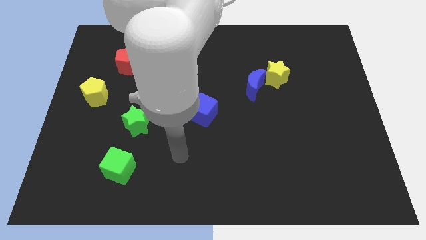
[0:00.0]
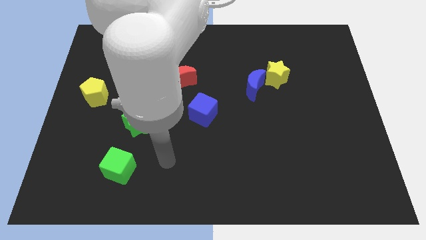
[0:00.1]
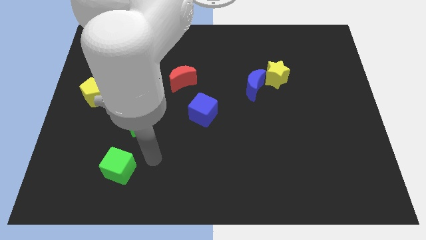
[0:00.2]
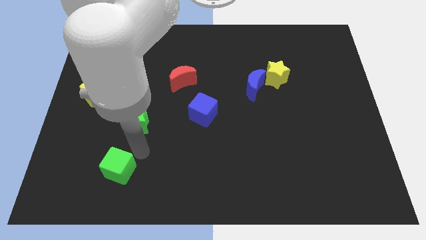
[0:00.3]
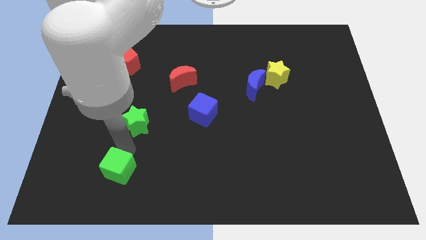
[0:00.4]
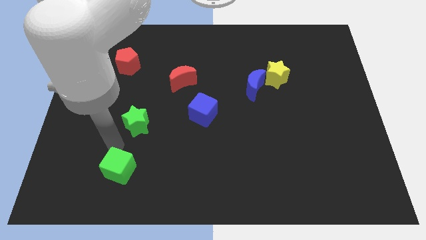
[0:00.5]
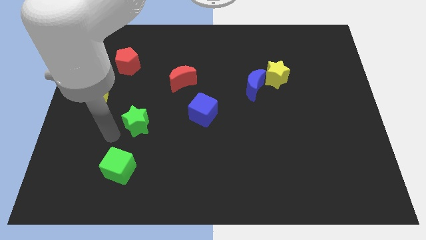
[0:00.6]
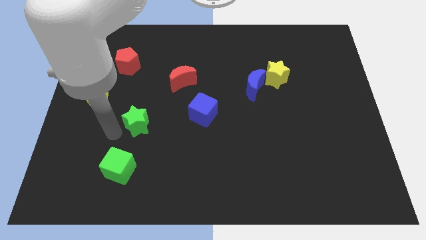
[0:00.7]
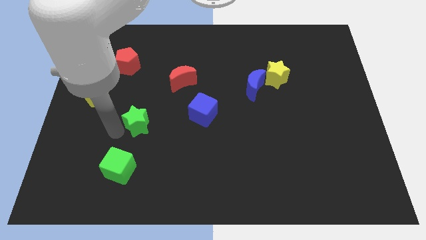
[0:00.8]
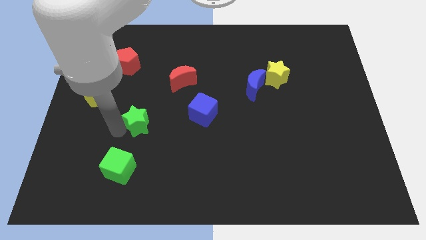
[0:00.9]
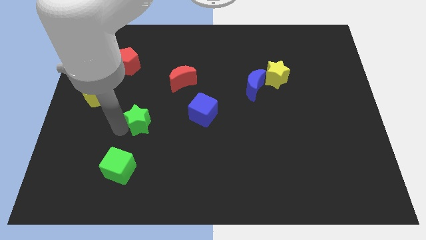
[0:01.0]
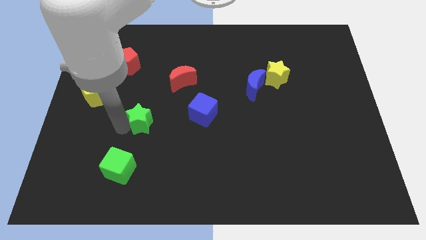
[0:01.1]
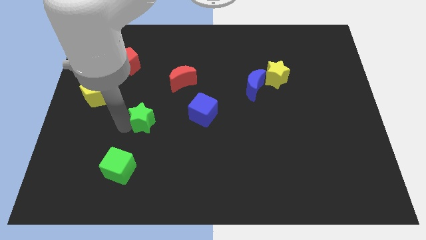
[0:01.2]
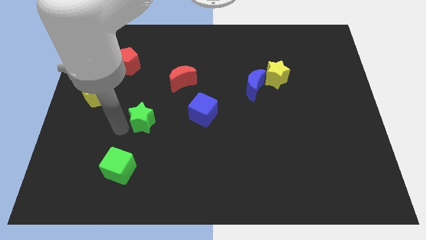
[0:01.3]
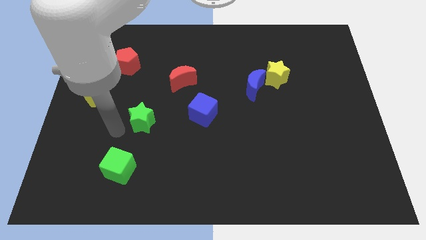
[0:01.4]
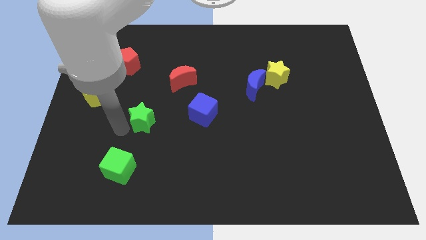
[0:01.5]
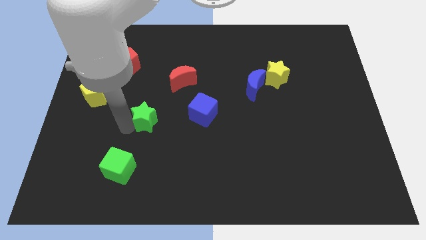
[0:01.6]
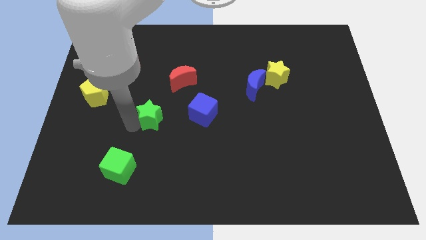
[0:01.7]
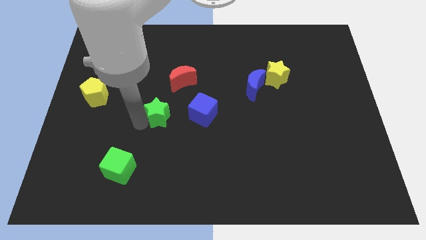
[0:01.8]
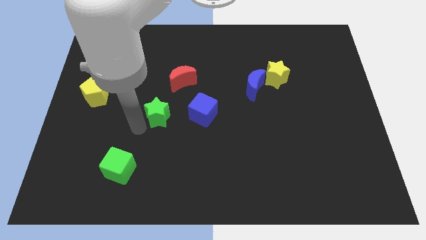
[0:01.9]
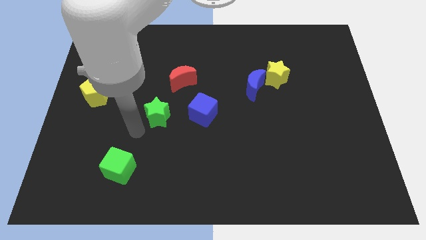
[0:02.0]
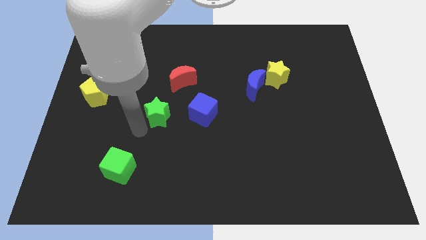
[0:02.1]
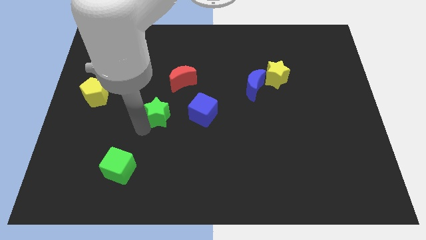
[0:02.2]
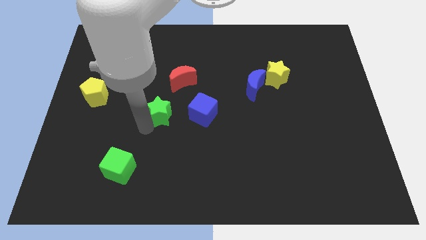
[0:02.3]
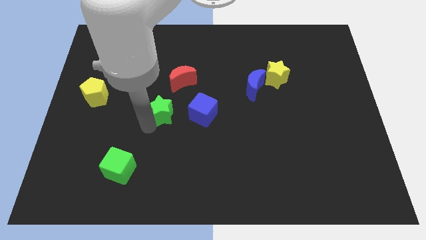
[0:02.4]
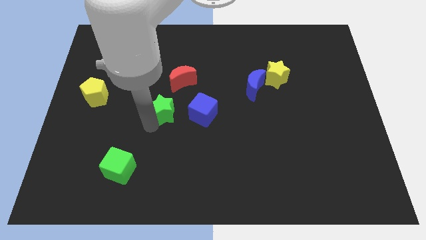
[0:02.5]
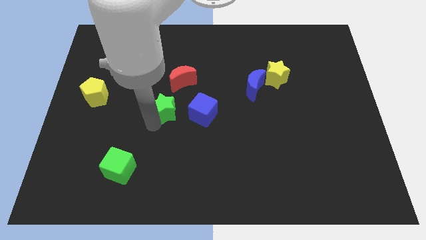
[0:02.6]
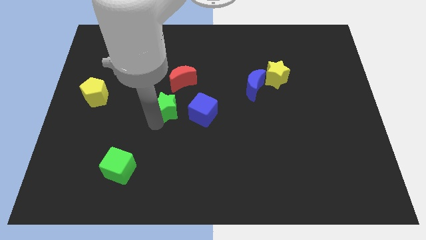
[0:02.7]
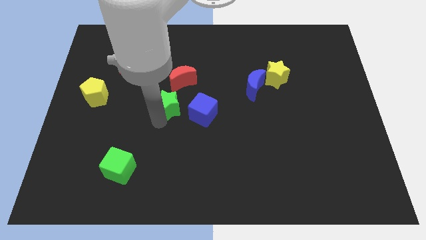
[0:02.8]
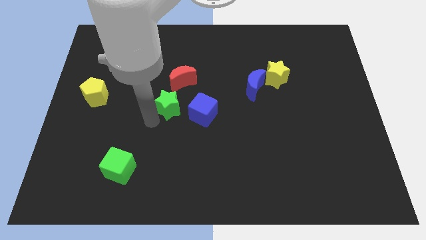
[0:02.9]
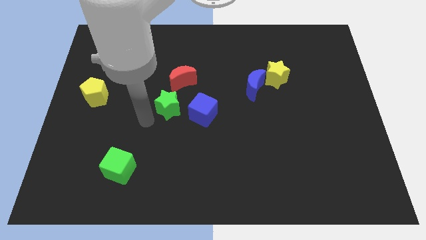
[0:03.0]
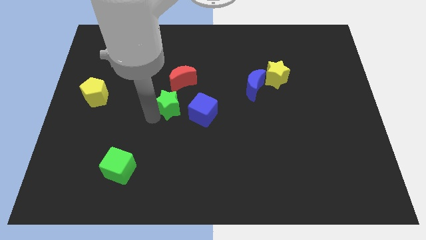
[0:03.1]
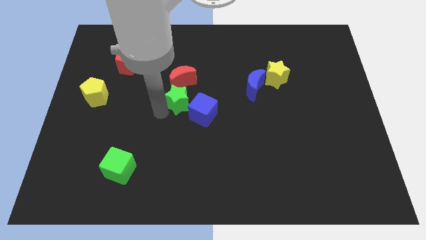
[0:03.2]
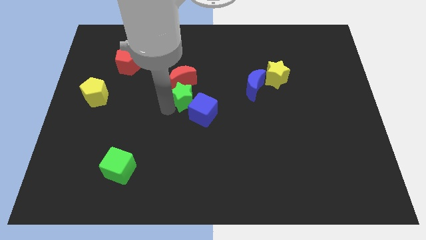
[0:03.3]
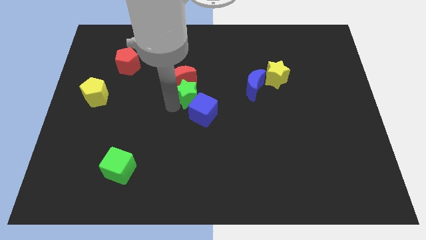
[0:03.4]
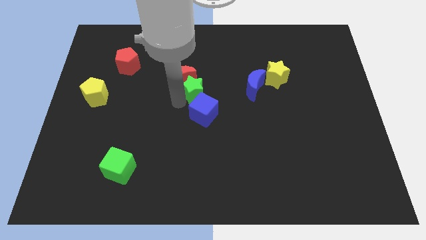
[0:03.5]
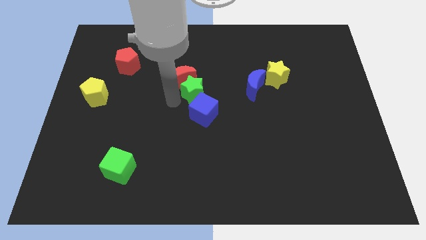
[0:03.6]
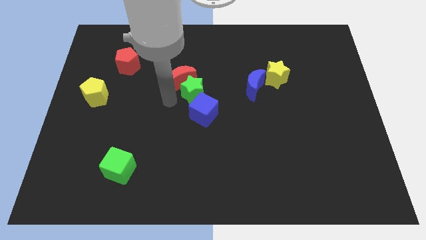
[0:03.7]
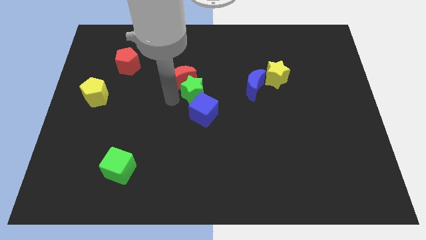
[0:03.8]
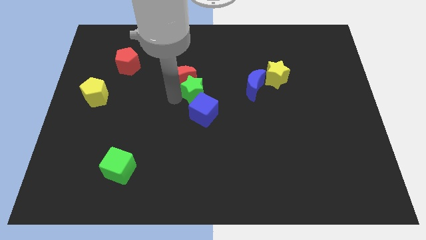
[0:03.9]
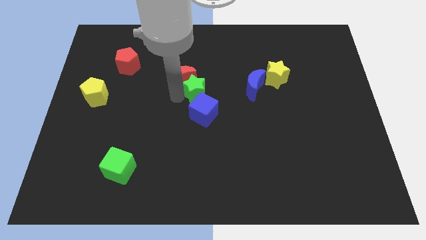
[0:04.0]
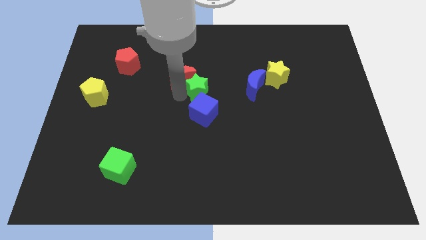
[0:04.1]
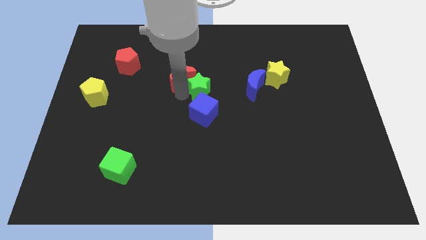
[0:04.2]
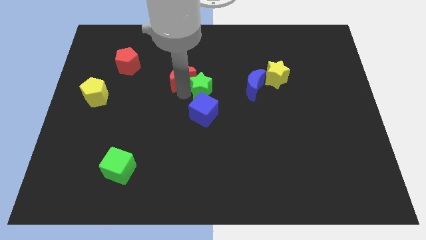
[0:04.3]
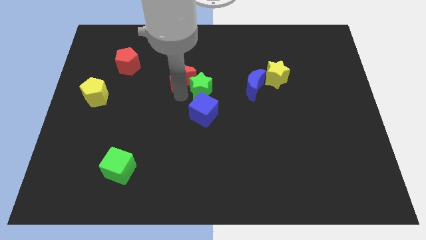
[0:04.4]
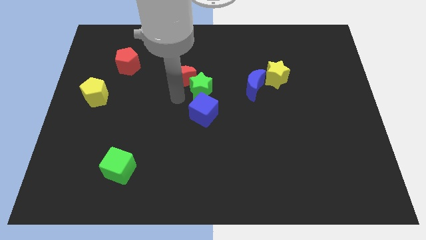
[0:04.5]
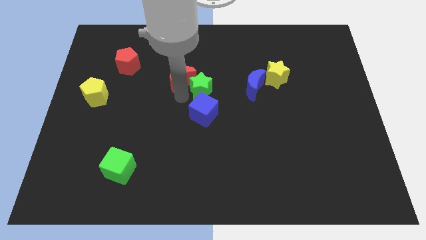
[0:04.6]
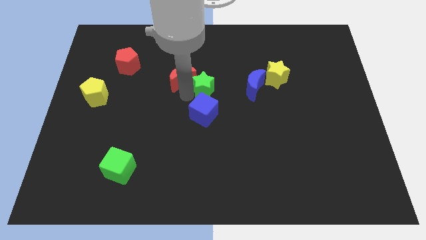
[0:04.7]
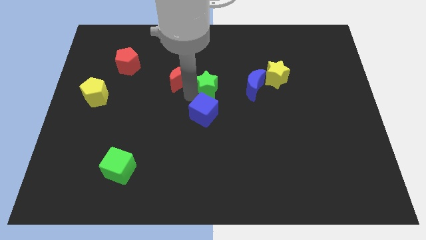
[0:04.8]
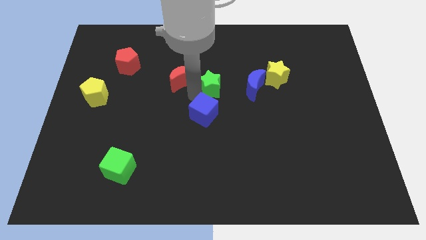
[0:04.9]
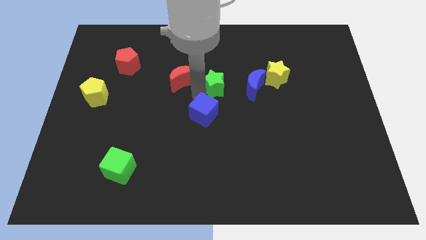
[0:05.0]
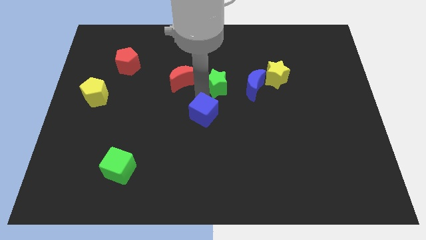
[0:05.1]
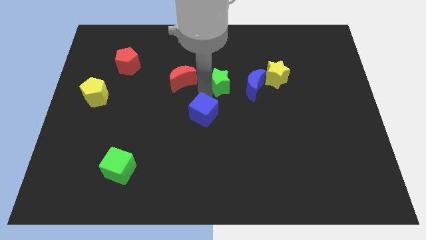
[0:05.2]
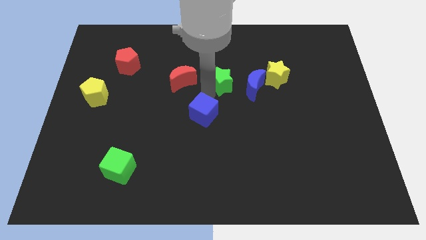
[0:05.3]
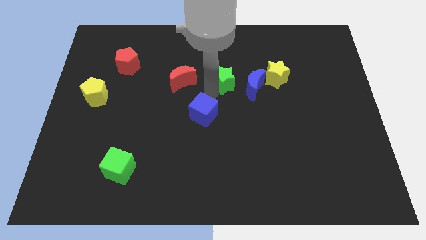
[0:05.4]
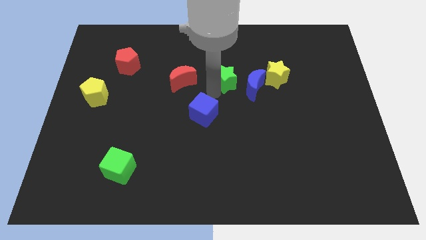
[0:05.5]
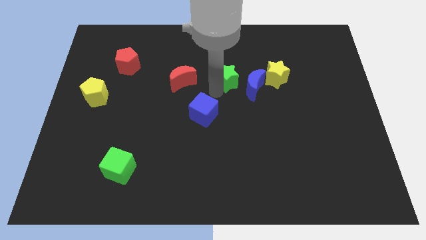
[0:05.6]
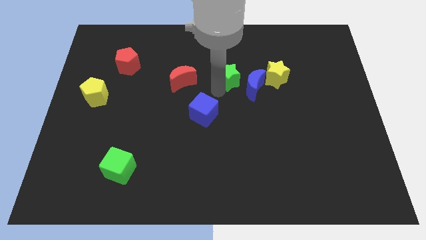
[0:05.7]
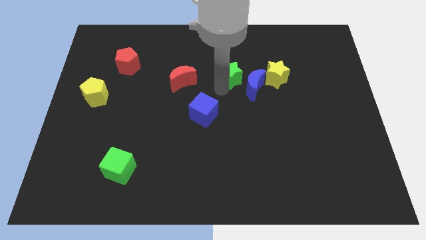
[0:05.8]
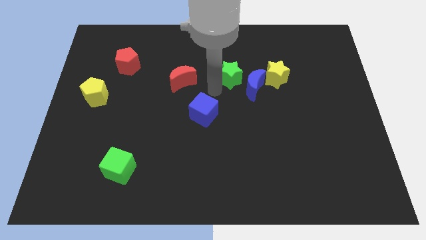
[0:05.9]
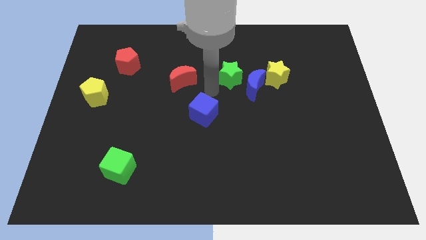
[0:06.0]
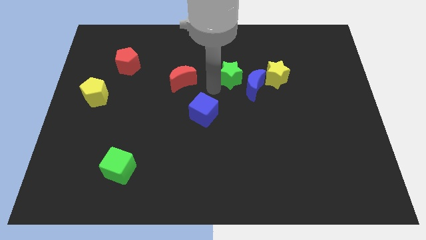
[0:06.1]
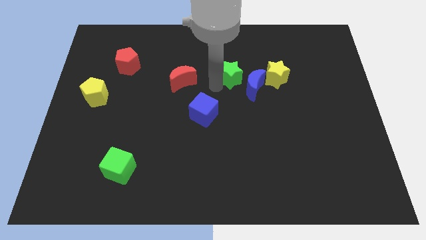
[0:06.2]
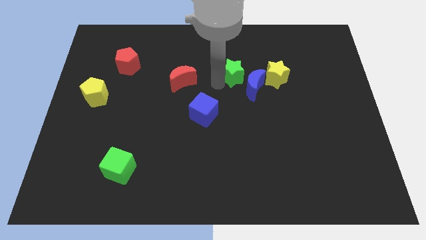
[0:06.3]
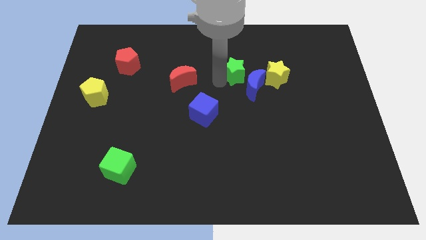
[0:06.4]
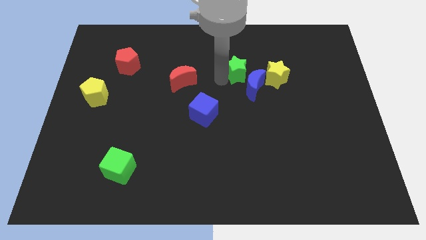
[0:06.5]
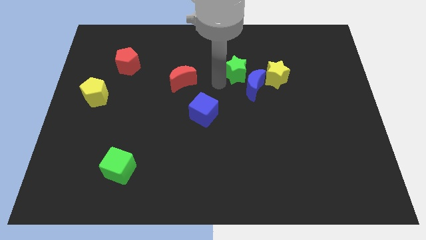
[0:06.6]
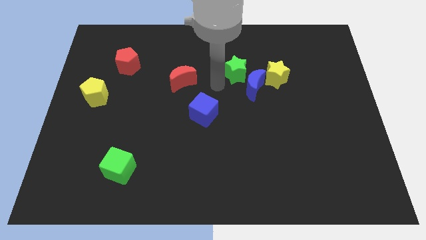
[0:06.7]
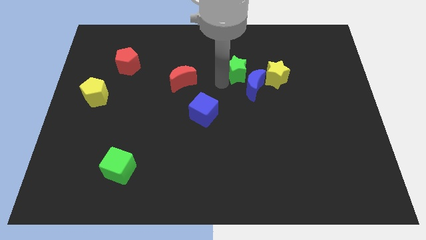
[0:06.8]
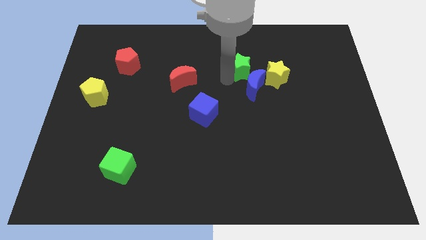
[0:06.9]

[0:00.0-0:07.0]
slide the green star diagonally up and to the left of the yellow star
